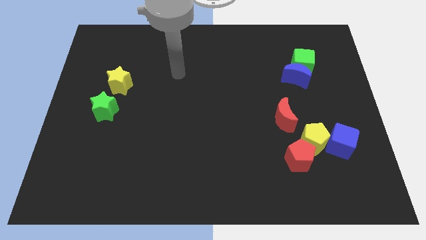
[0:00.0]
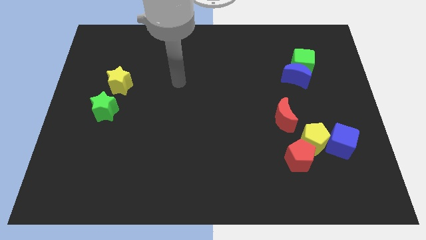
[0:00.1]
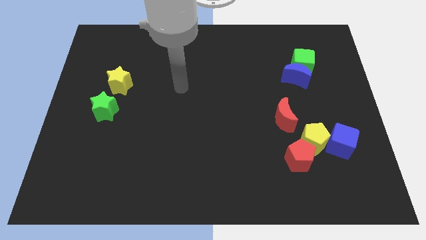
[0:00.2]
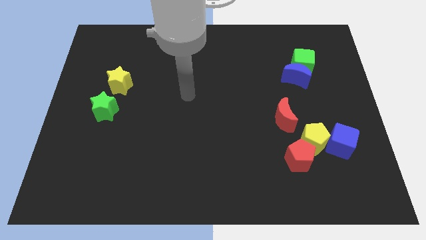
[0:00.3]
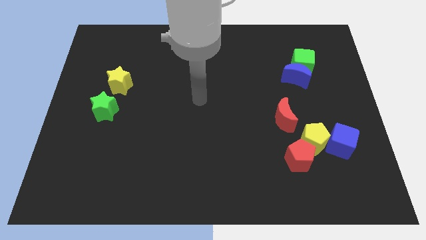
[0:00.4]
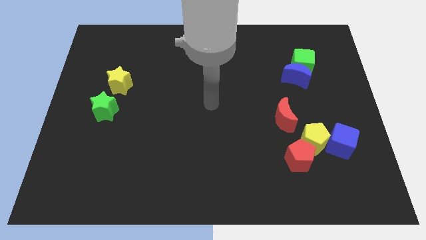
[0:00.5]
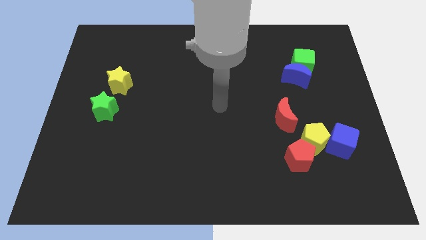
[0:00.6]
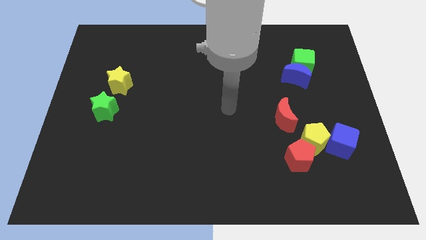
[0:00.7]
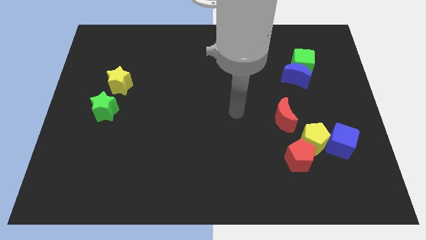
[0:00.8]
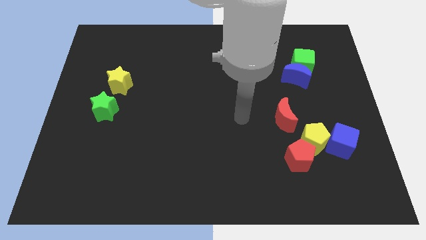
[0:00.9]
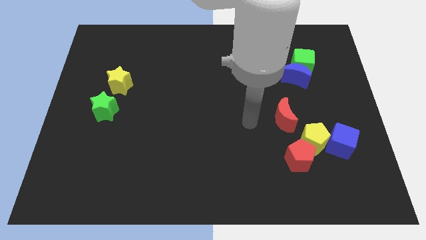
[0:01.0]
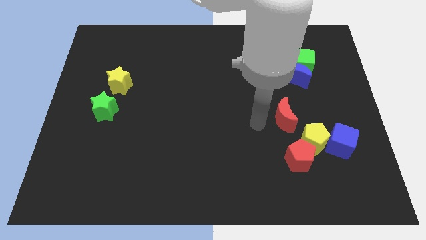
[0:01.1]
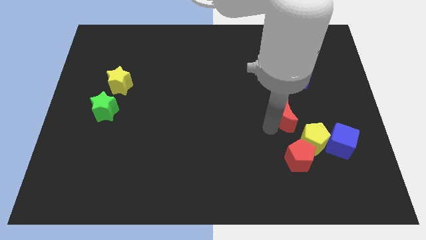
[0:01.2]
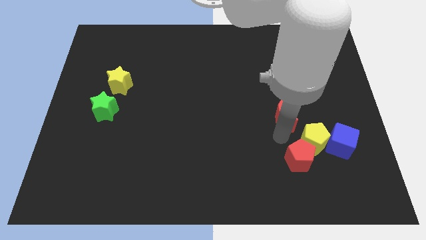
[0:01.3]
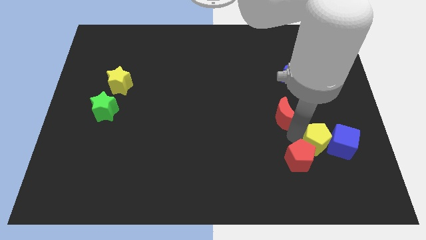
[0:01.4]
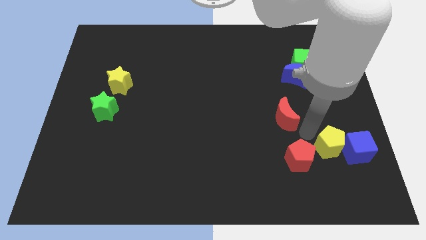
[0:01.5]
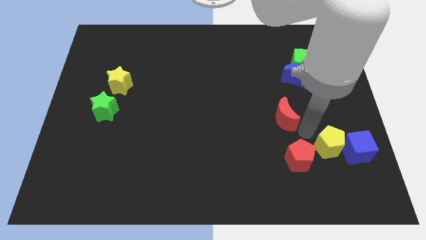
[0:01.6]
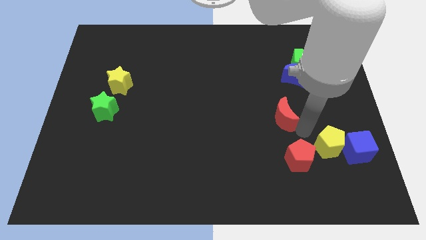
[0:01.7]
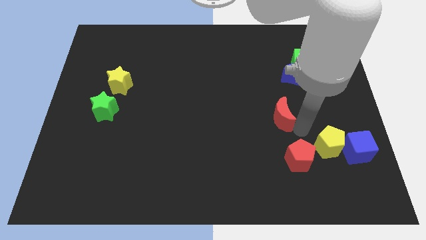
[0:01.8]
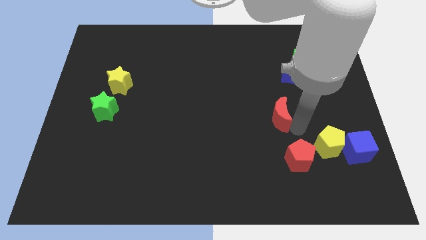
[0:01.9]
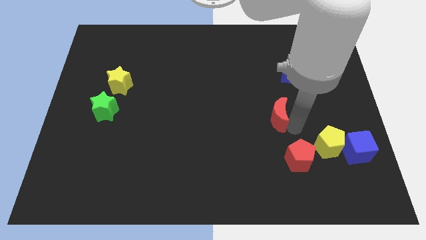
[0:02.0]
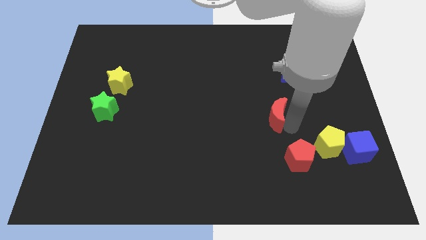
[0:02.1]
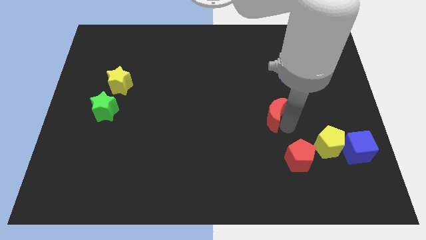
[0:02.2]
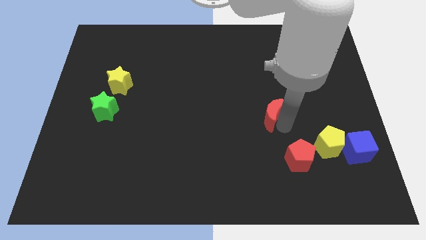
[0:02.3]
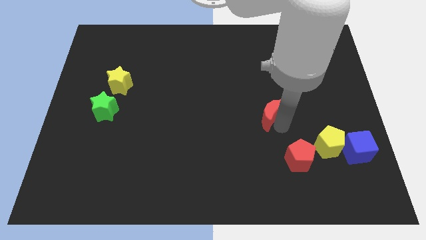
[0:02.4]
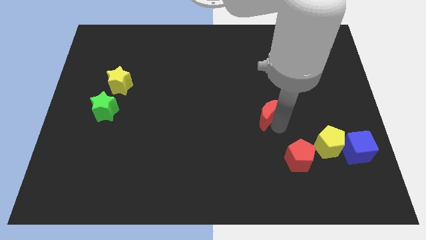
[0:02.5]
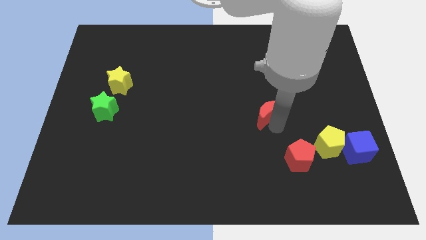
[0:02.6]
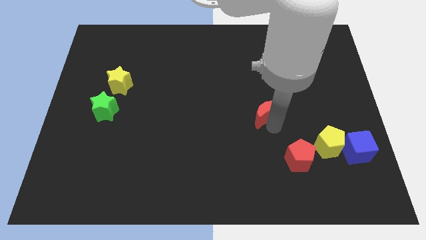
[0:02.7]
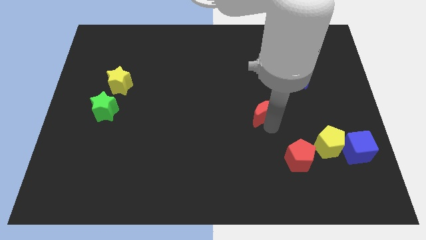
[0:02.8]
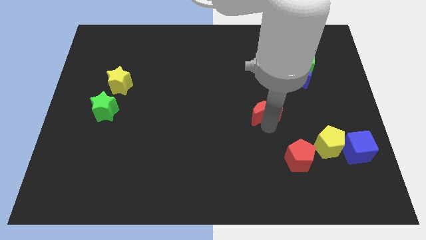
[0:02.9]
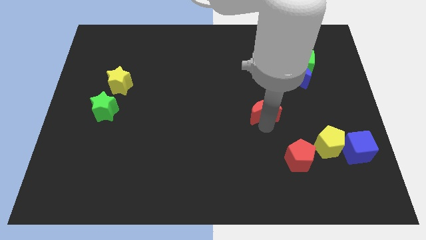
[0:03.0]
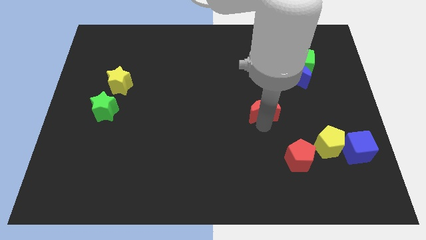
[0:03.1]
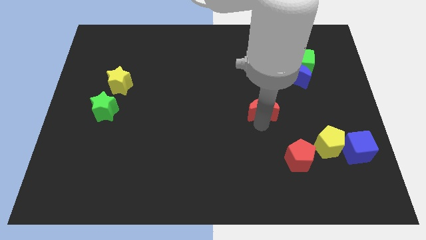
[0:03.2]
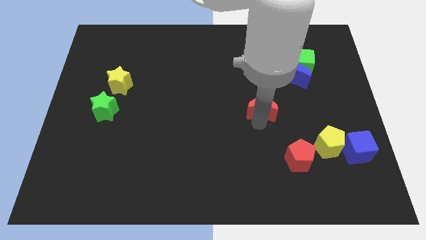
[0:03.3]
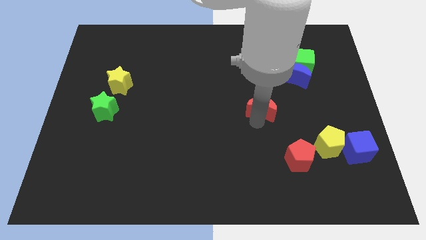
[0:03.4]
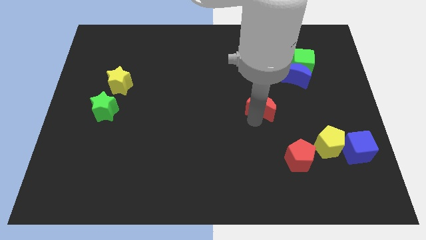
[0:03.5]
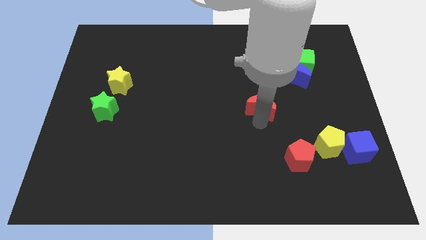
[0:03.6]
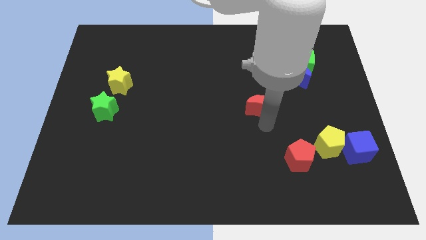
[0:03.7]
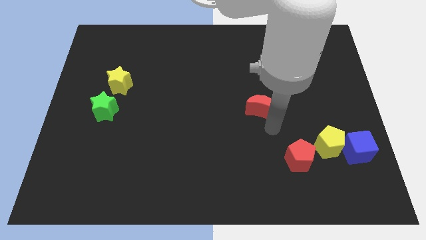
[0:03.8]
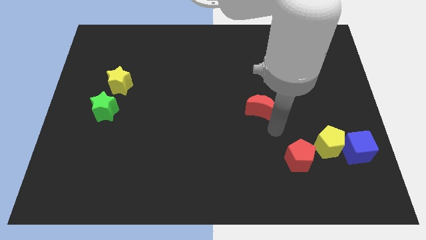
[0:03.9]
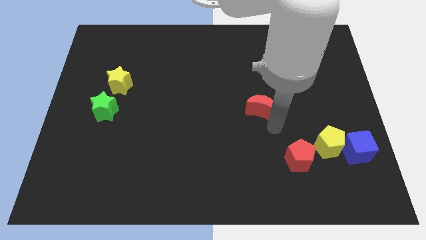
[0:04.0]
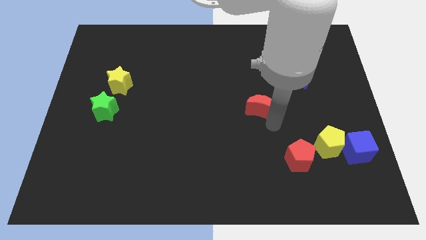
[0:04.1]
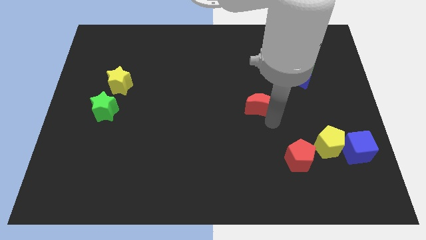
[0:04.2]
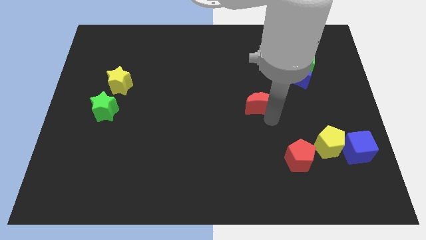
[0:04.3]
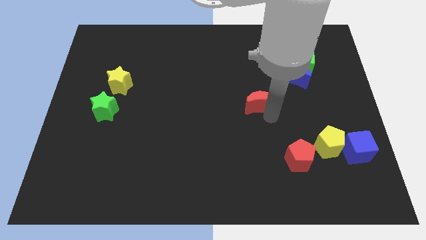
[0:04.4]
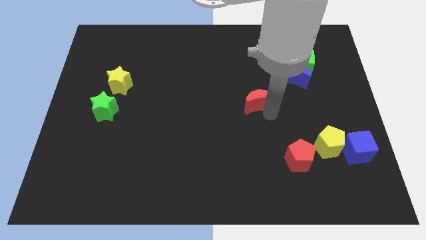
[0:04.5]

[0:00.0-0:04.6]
move the red moon a little bit upwards and to the left

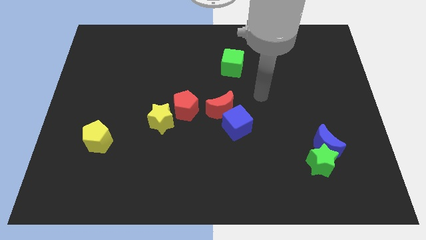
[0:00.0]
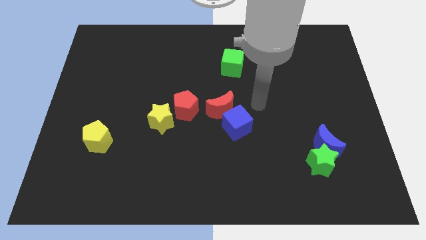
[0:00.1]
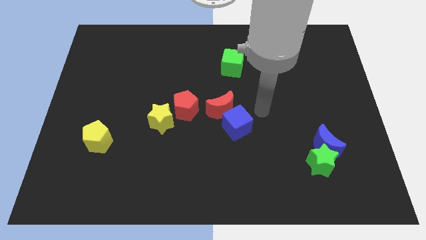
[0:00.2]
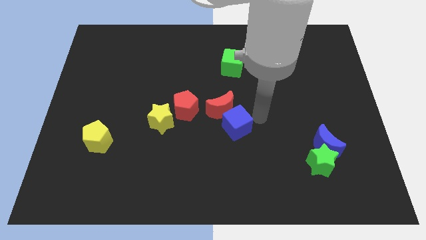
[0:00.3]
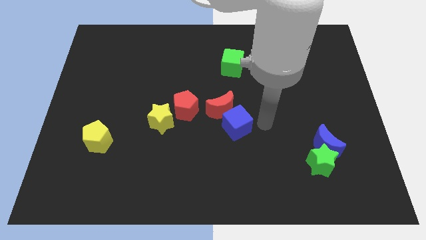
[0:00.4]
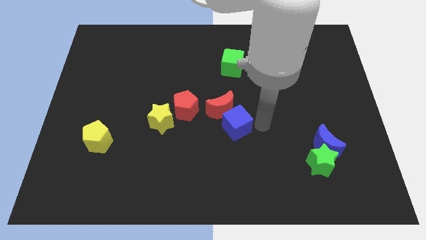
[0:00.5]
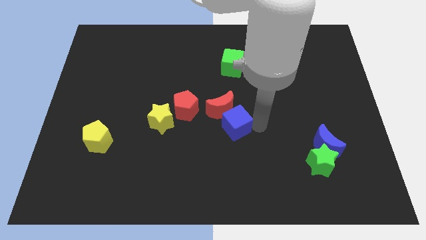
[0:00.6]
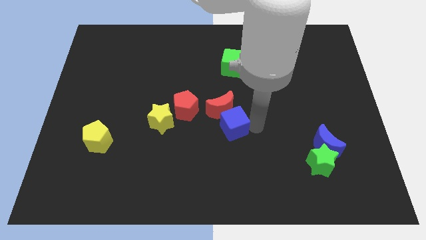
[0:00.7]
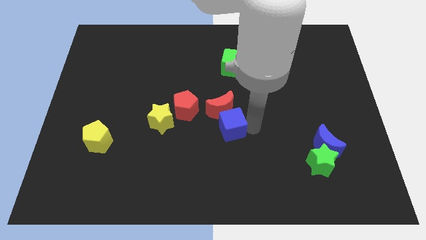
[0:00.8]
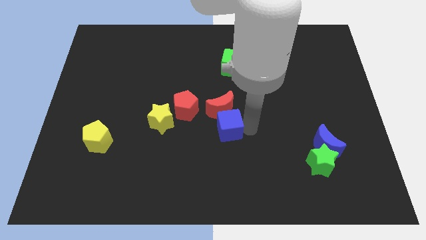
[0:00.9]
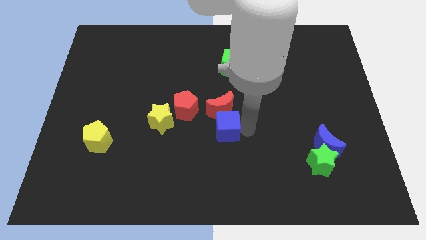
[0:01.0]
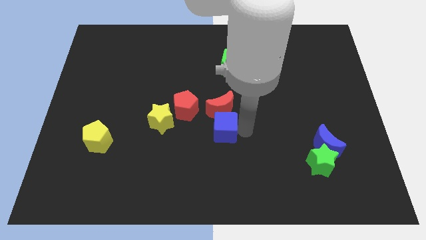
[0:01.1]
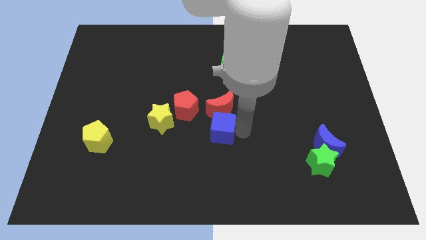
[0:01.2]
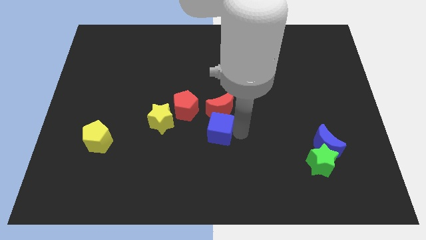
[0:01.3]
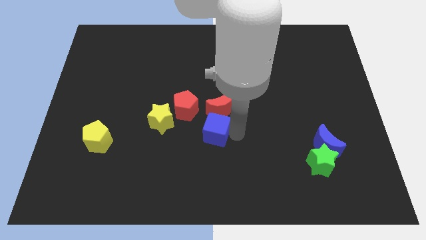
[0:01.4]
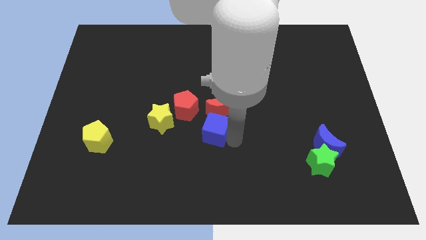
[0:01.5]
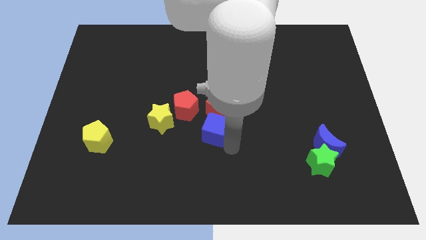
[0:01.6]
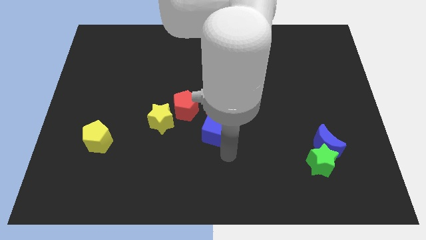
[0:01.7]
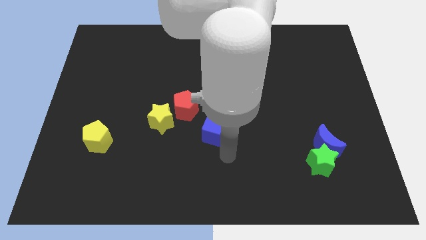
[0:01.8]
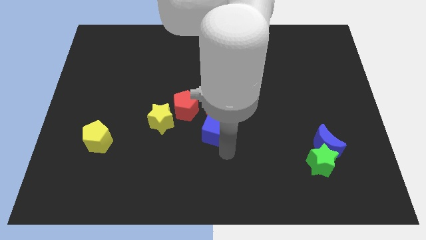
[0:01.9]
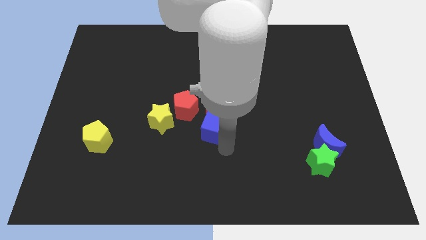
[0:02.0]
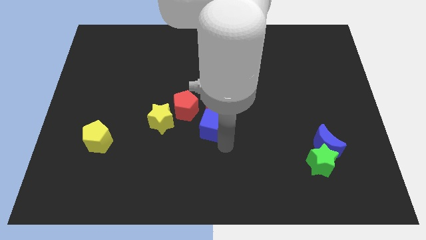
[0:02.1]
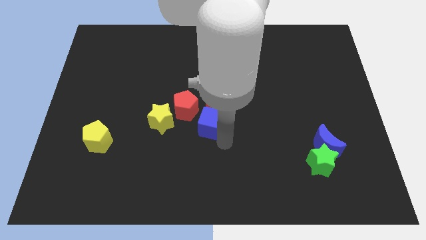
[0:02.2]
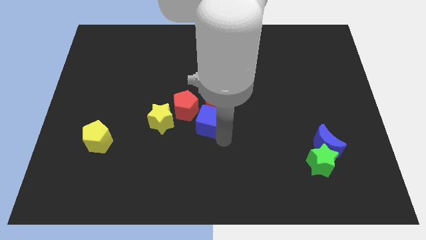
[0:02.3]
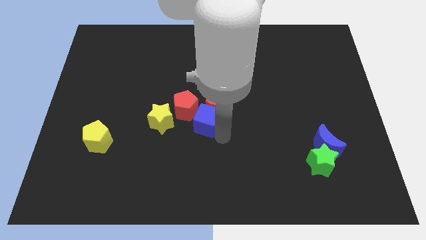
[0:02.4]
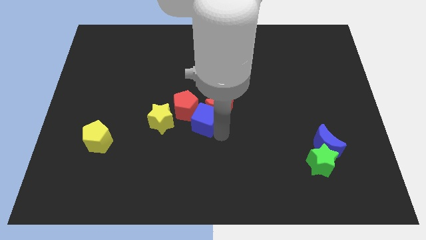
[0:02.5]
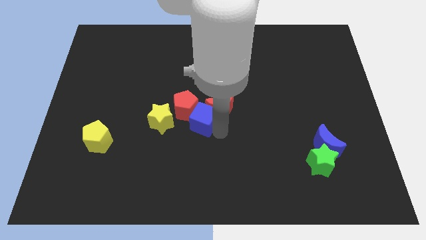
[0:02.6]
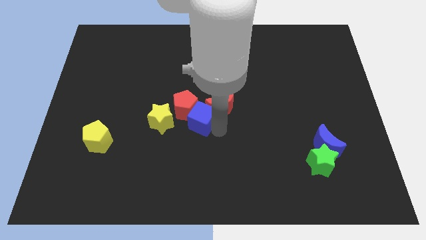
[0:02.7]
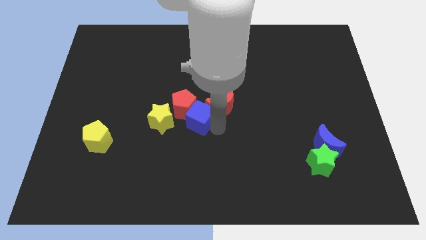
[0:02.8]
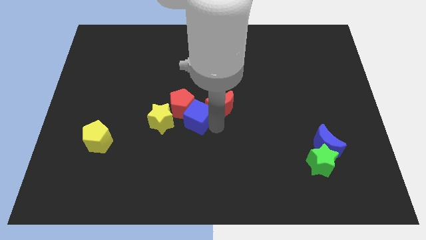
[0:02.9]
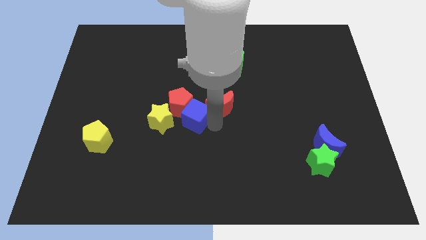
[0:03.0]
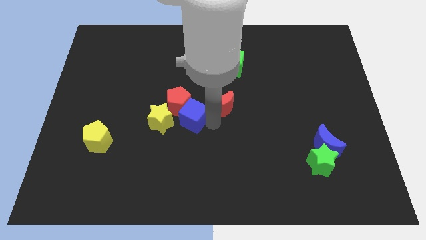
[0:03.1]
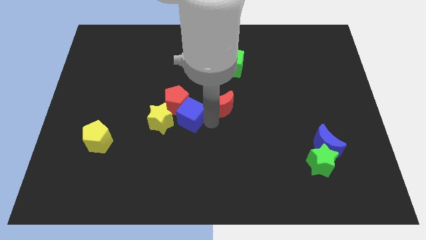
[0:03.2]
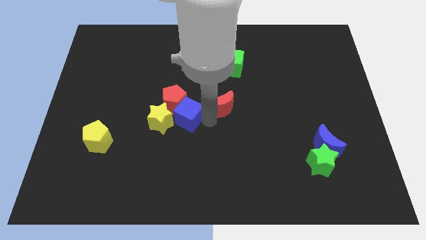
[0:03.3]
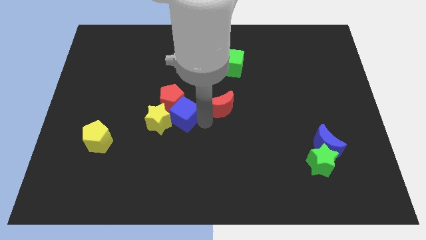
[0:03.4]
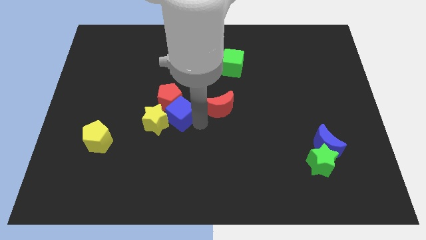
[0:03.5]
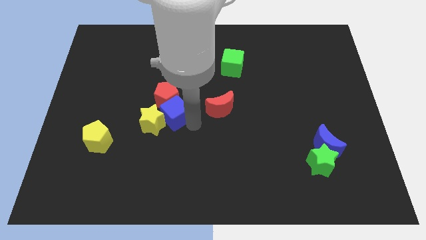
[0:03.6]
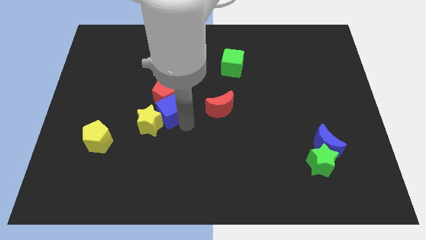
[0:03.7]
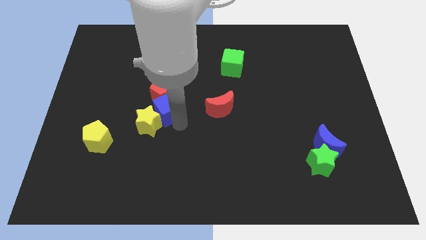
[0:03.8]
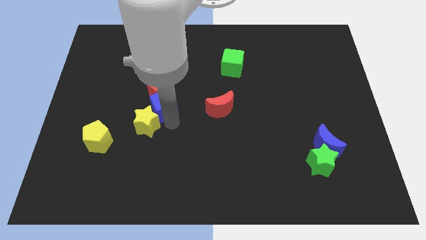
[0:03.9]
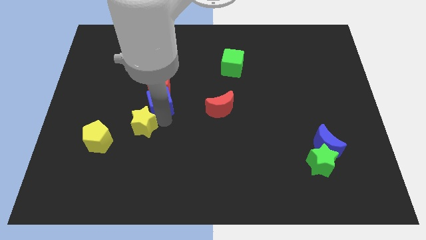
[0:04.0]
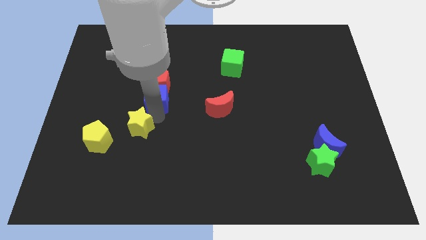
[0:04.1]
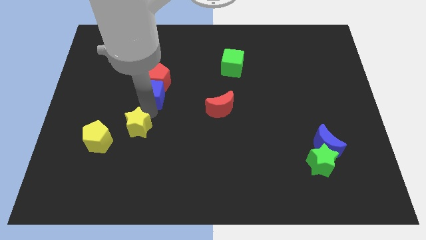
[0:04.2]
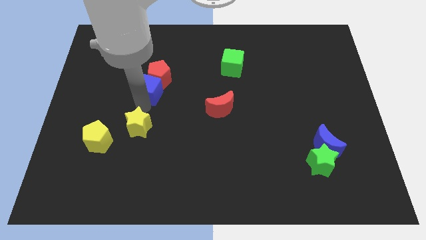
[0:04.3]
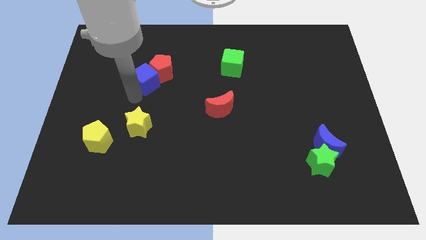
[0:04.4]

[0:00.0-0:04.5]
move the blue cube upwards and then left
